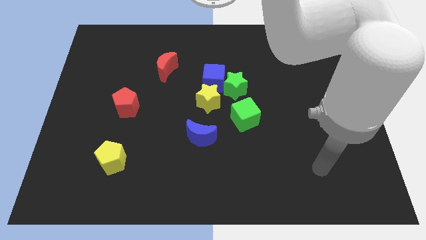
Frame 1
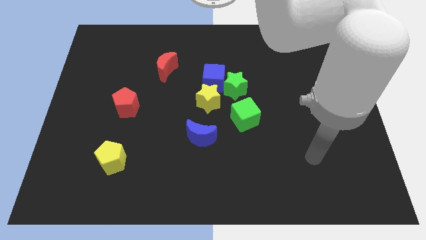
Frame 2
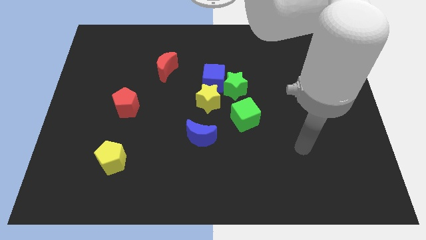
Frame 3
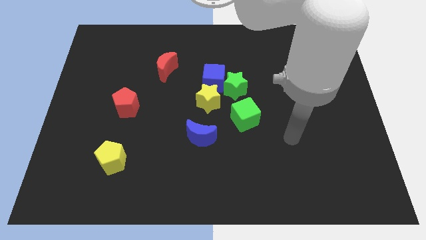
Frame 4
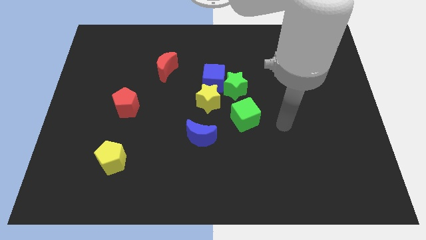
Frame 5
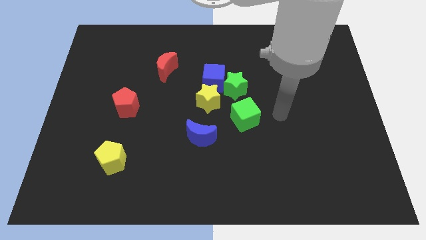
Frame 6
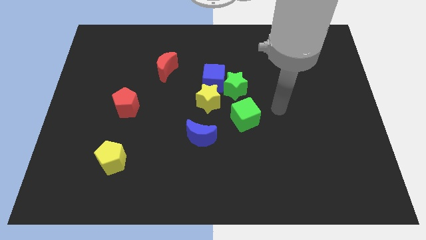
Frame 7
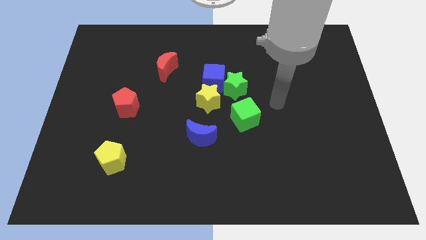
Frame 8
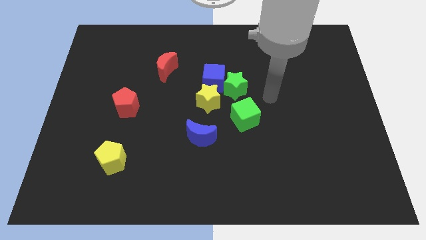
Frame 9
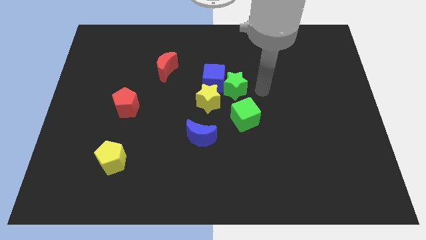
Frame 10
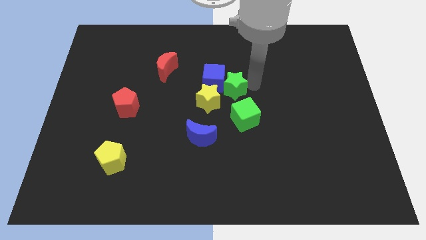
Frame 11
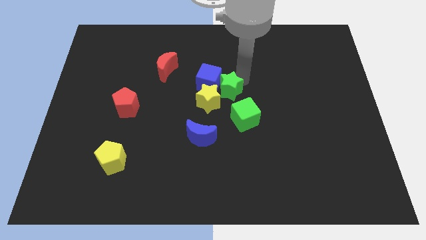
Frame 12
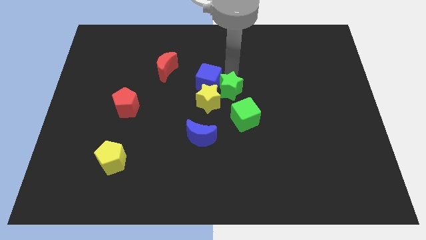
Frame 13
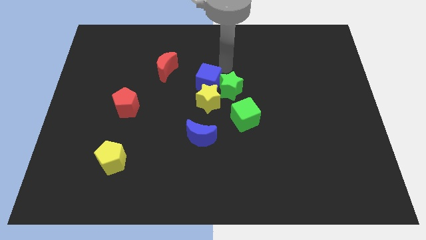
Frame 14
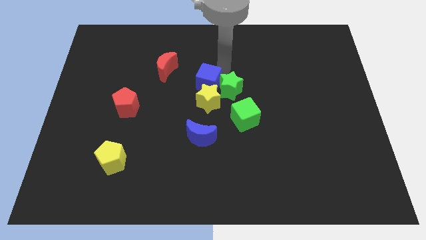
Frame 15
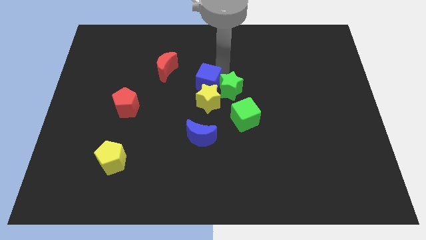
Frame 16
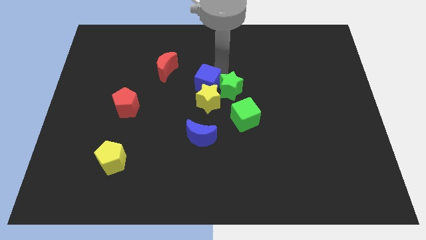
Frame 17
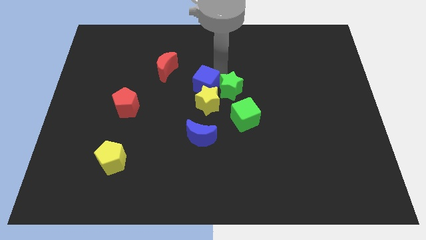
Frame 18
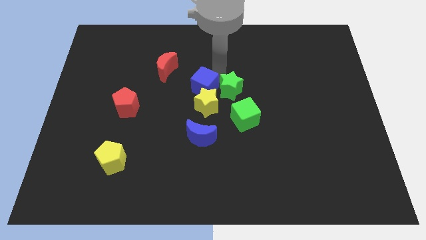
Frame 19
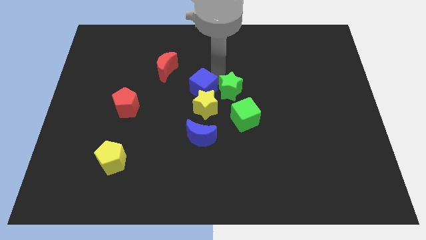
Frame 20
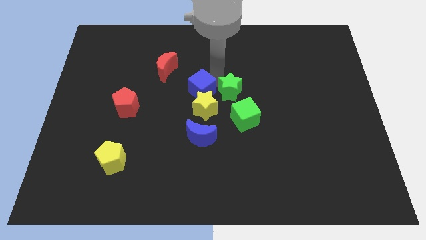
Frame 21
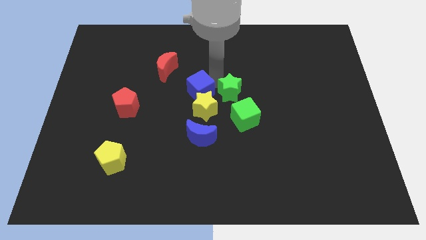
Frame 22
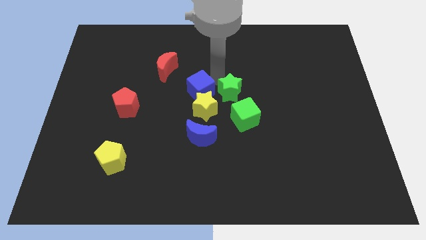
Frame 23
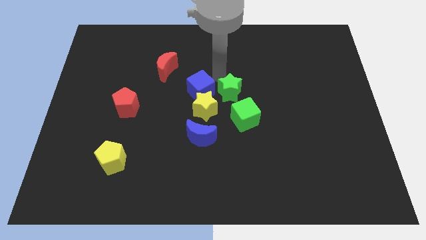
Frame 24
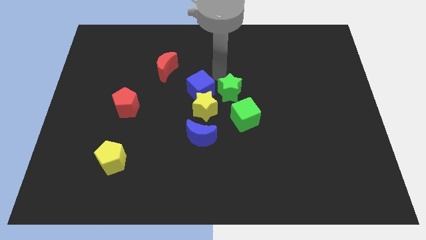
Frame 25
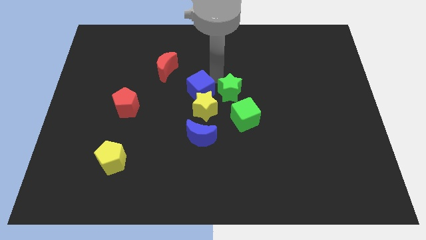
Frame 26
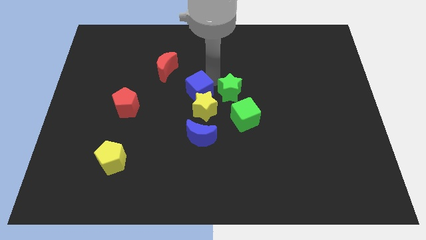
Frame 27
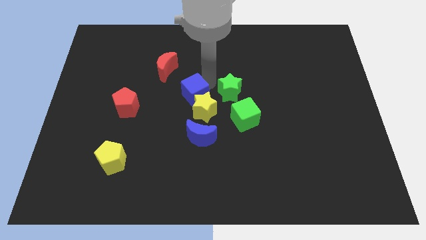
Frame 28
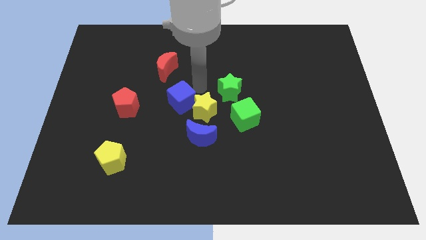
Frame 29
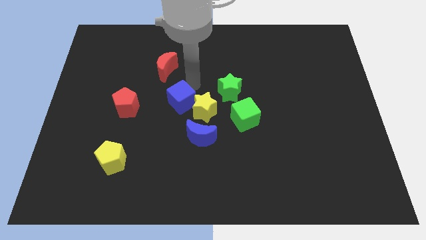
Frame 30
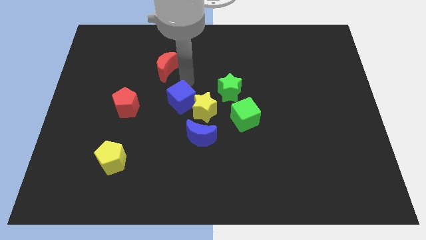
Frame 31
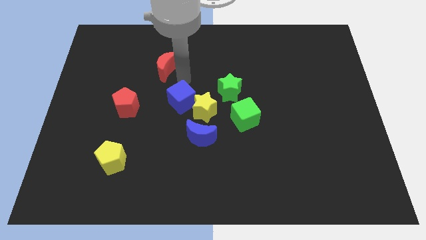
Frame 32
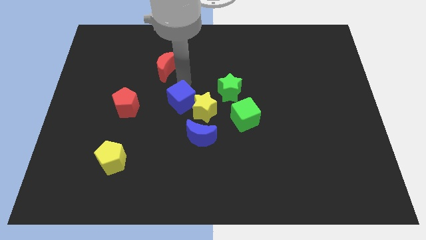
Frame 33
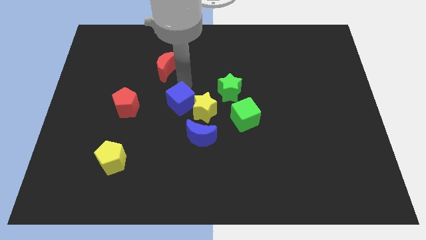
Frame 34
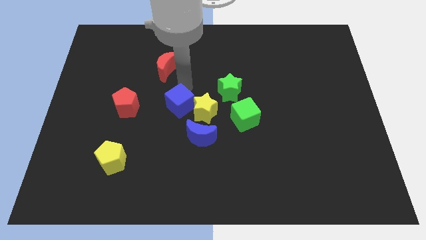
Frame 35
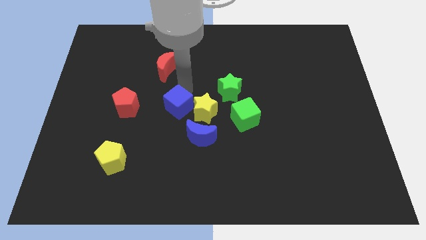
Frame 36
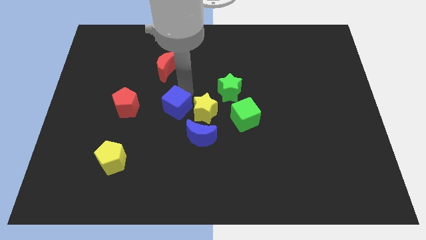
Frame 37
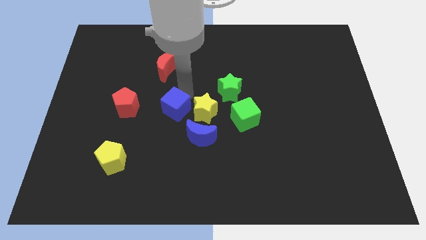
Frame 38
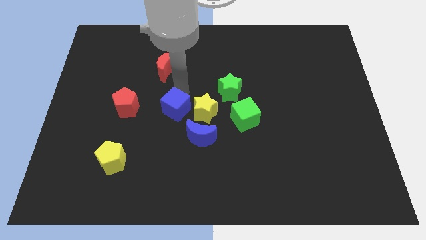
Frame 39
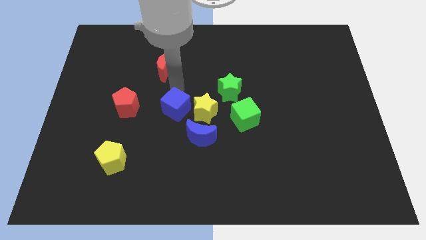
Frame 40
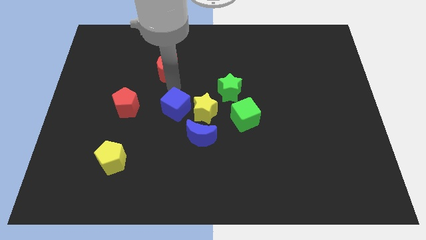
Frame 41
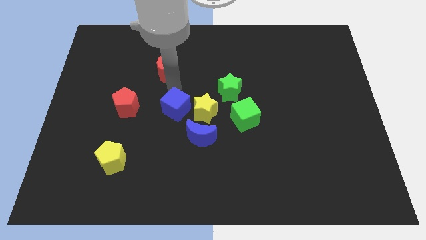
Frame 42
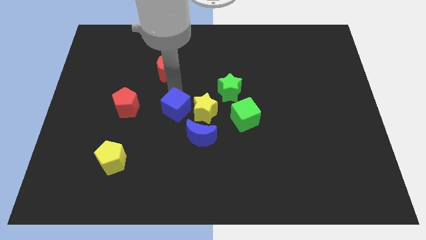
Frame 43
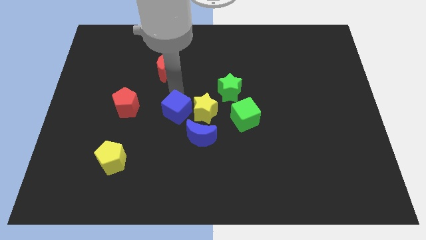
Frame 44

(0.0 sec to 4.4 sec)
slide the blue cube diagonally down and to the left of the yellow star

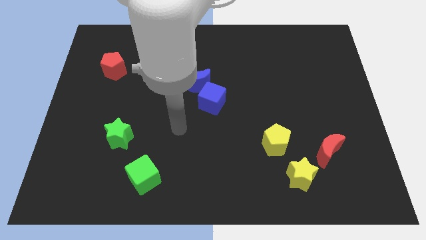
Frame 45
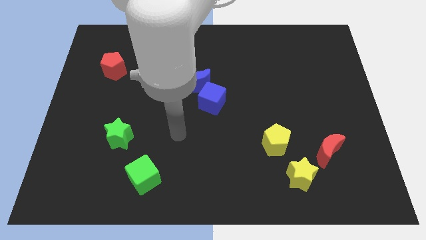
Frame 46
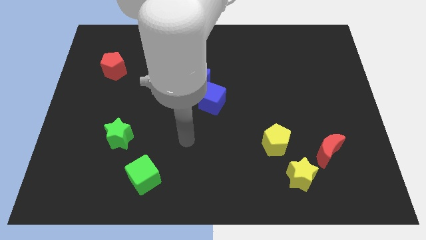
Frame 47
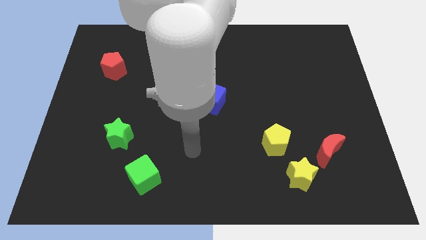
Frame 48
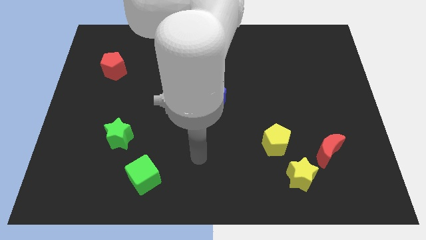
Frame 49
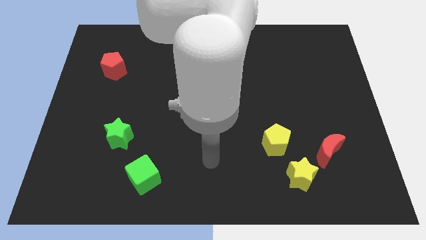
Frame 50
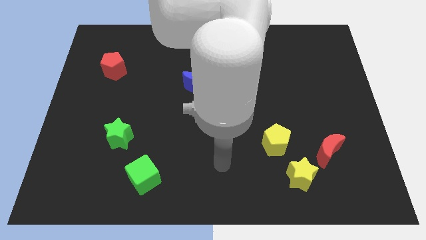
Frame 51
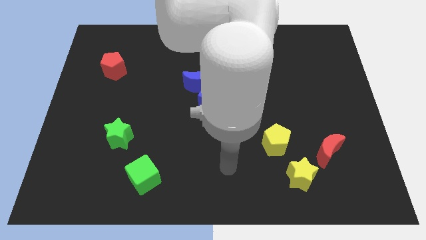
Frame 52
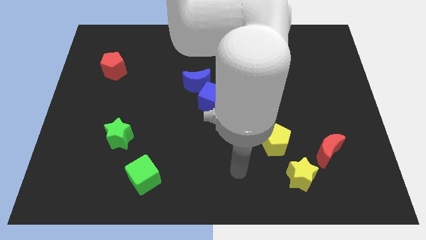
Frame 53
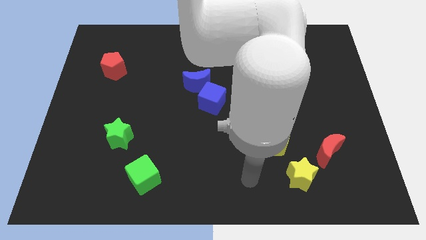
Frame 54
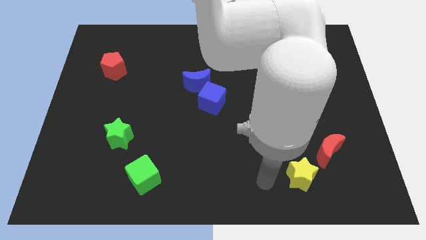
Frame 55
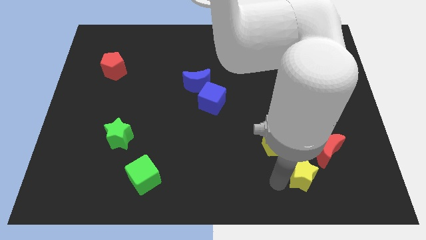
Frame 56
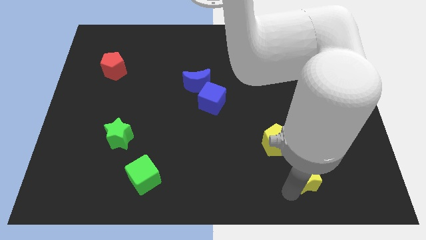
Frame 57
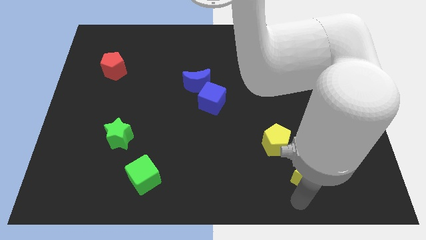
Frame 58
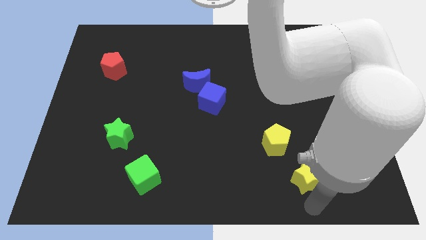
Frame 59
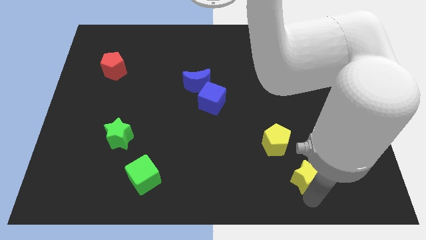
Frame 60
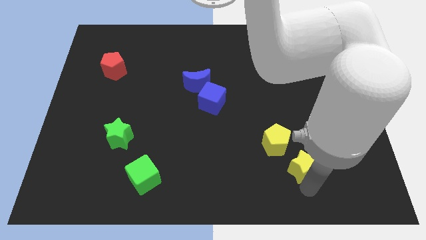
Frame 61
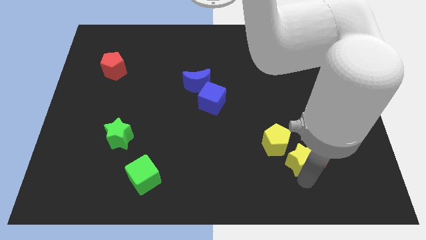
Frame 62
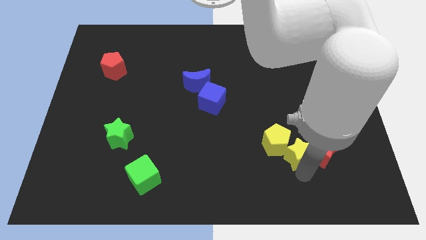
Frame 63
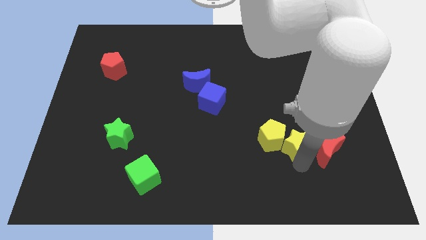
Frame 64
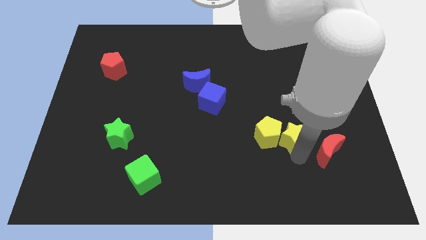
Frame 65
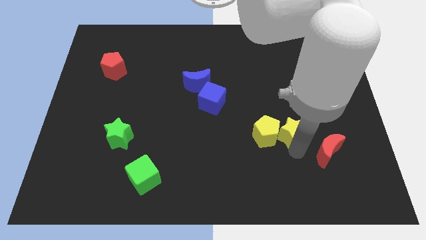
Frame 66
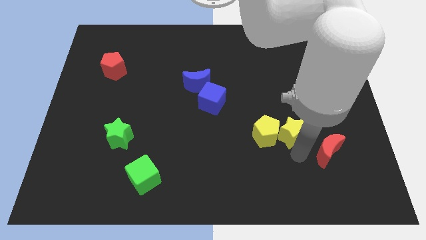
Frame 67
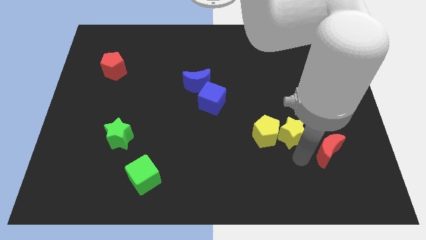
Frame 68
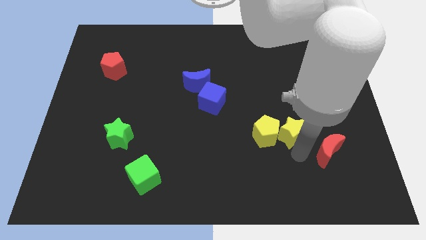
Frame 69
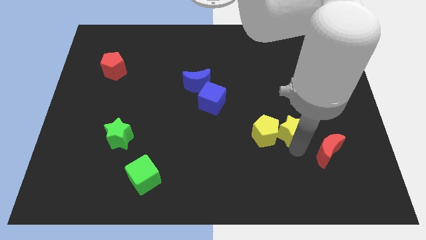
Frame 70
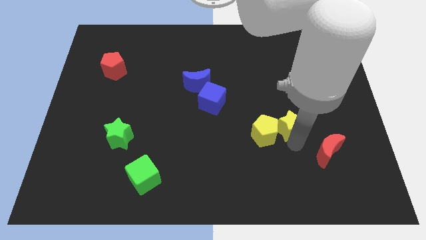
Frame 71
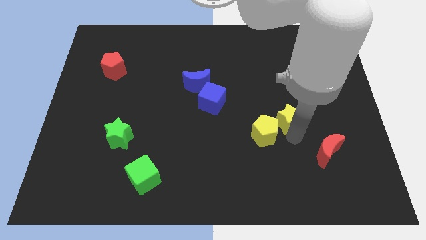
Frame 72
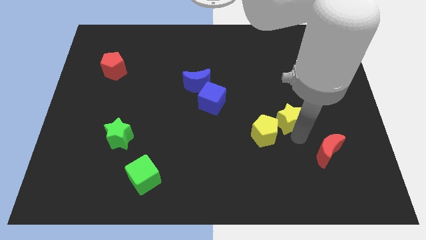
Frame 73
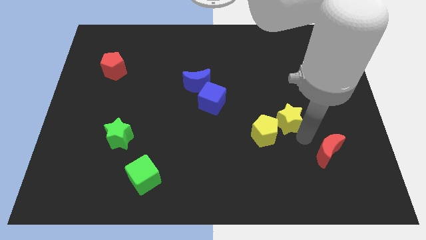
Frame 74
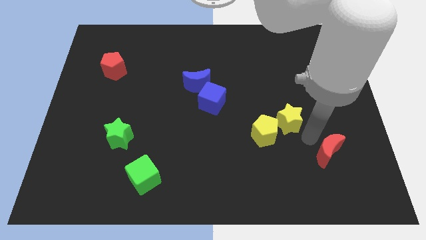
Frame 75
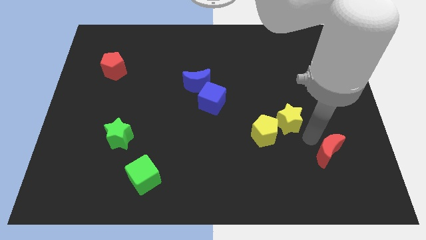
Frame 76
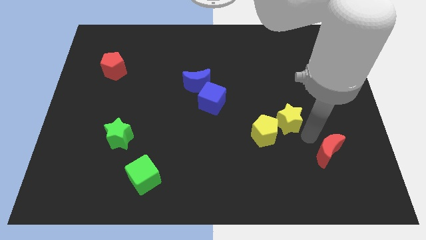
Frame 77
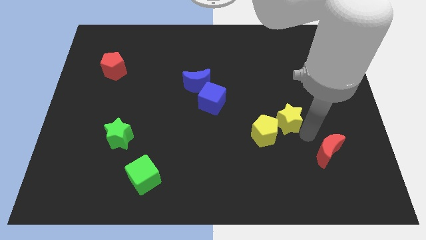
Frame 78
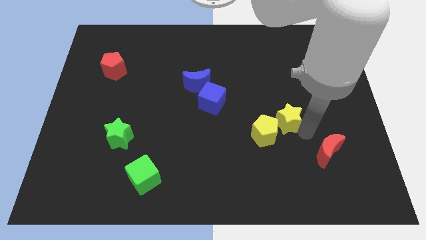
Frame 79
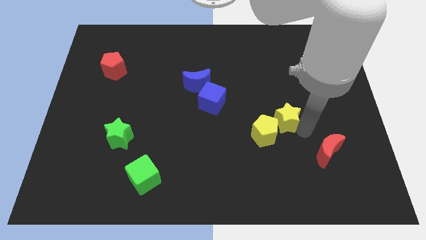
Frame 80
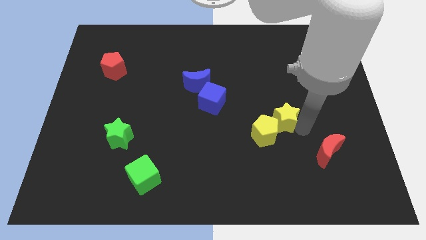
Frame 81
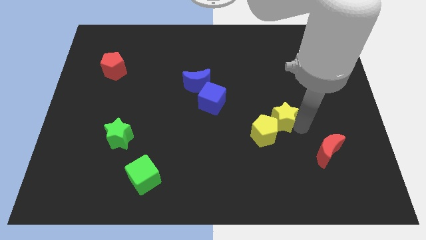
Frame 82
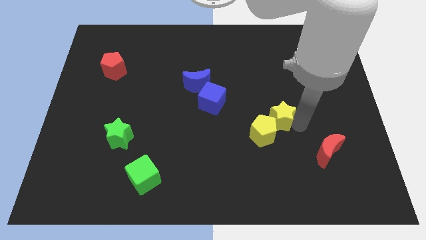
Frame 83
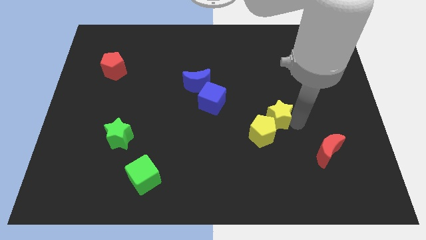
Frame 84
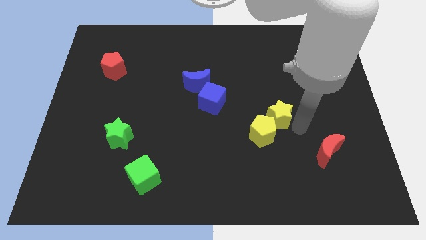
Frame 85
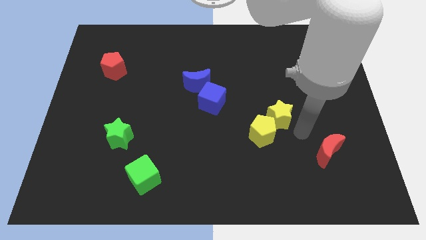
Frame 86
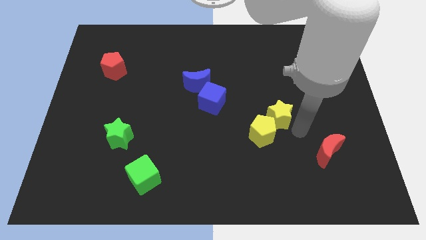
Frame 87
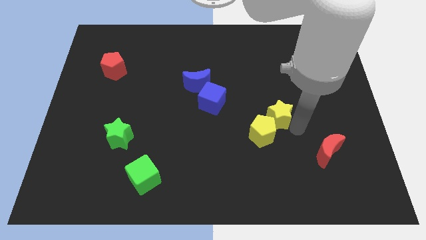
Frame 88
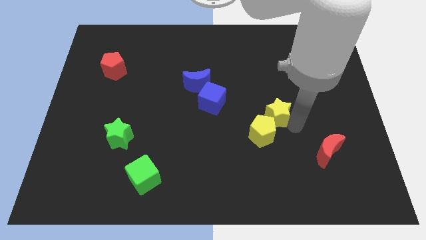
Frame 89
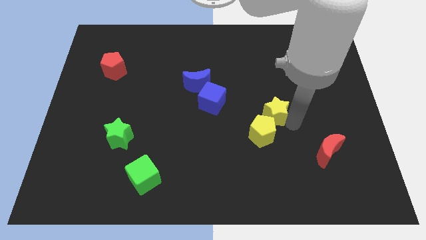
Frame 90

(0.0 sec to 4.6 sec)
slide the yellow star just right of the blue cube
